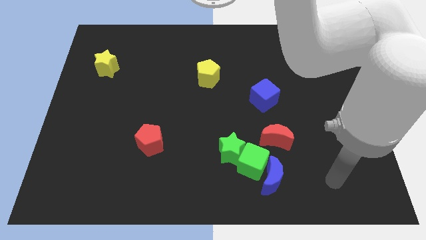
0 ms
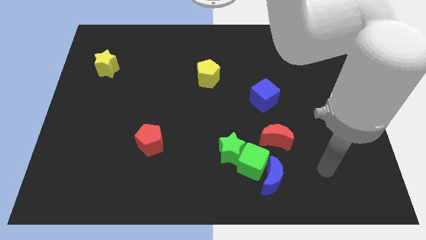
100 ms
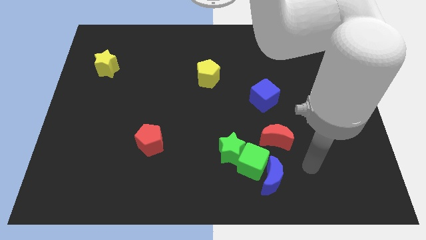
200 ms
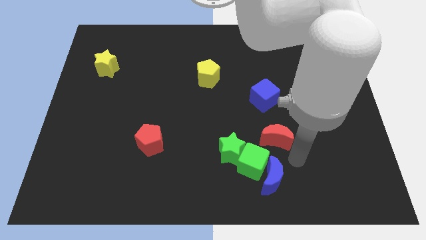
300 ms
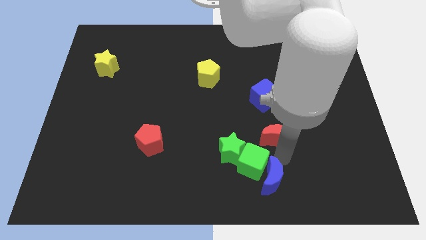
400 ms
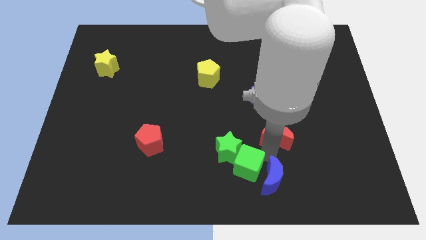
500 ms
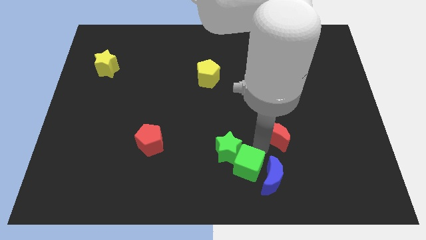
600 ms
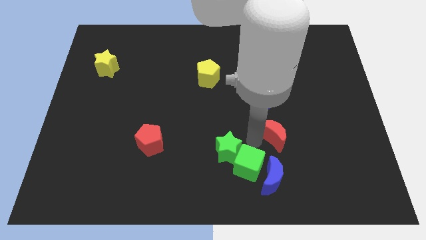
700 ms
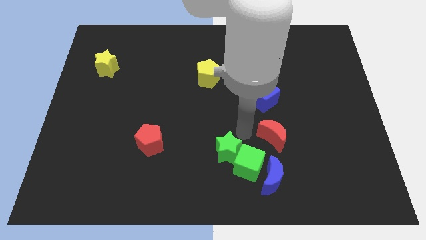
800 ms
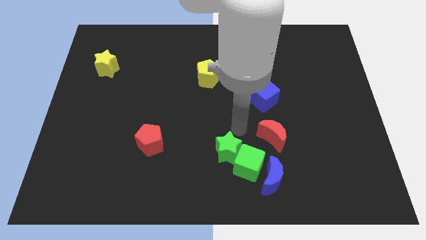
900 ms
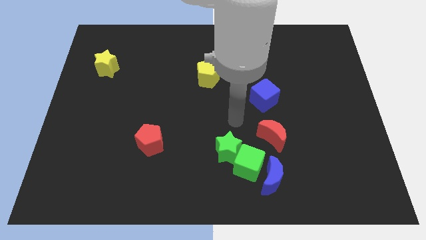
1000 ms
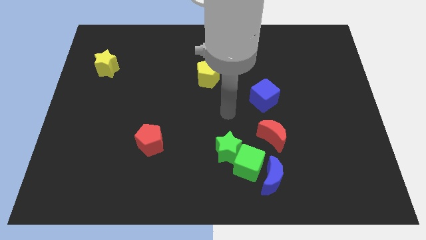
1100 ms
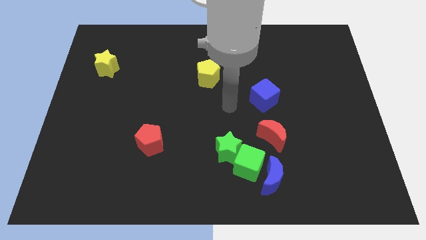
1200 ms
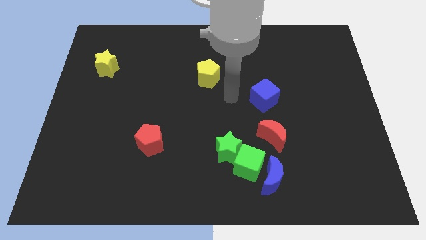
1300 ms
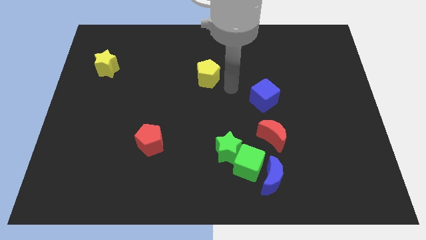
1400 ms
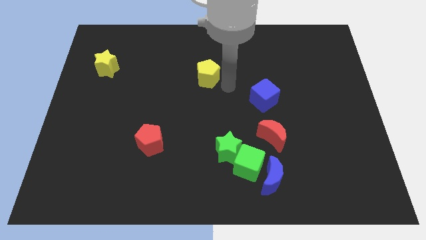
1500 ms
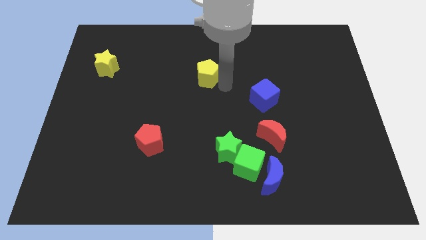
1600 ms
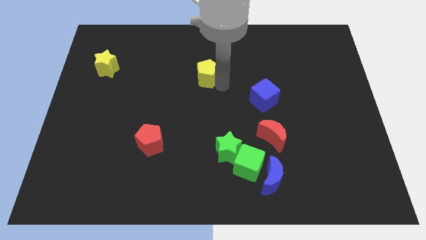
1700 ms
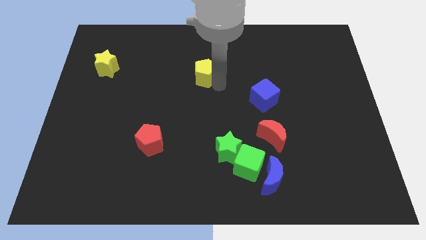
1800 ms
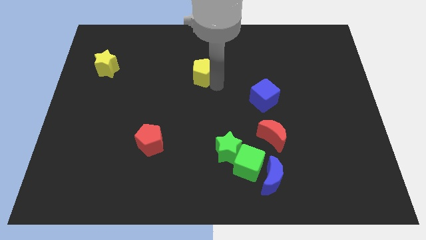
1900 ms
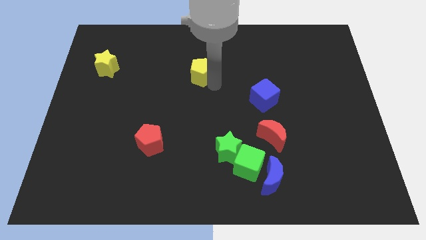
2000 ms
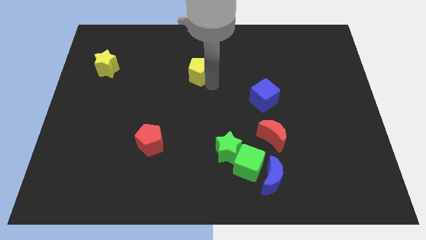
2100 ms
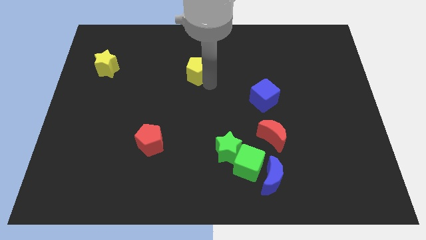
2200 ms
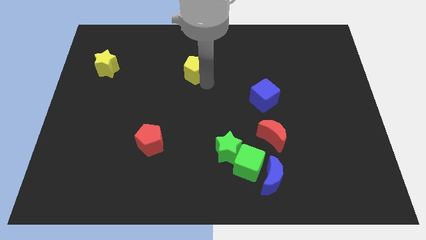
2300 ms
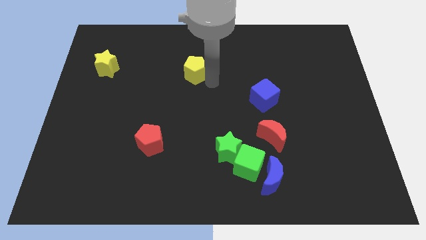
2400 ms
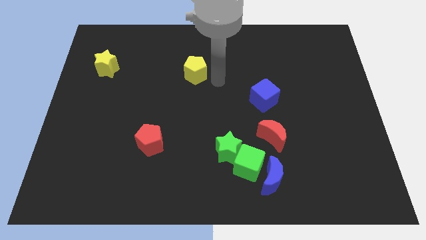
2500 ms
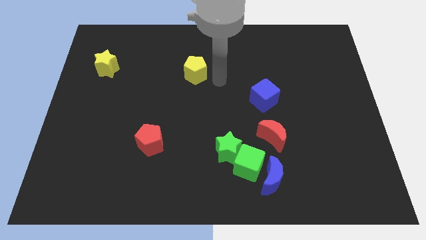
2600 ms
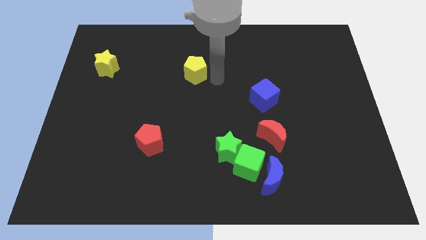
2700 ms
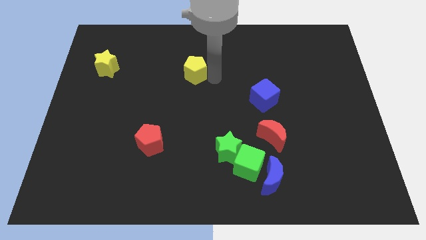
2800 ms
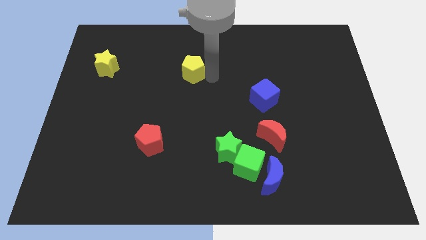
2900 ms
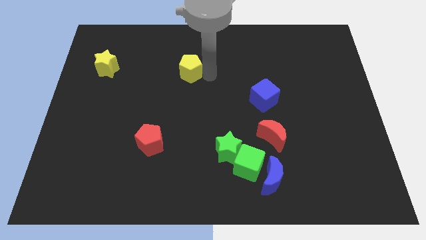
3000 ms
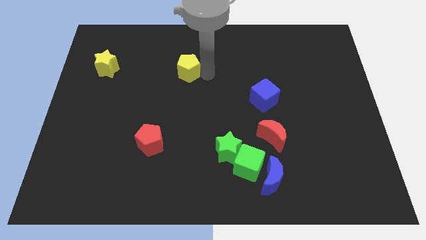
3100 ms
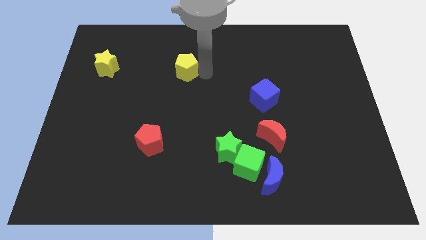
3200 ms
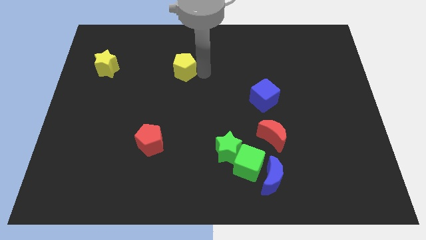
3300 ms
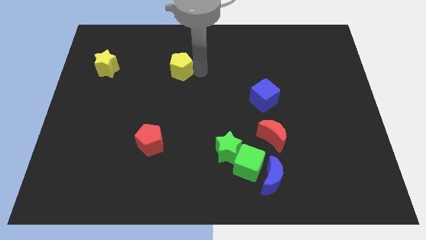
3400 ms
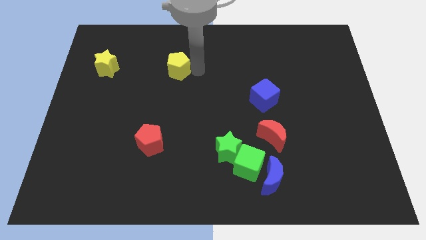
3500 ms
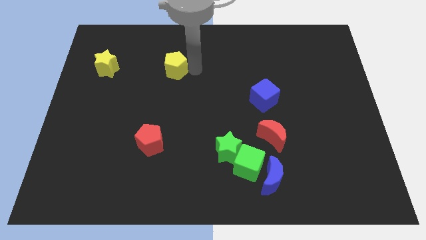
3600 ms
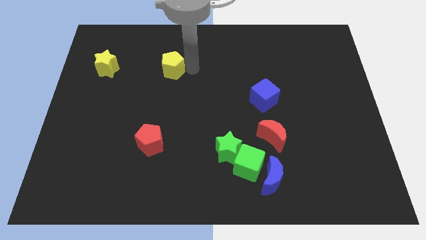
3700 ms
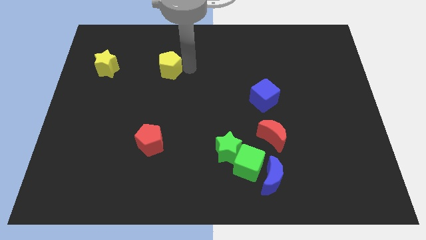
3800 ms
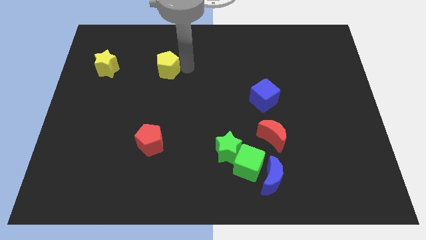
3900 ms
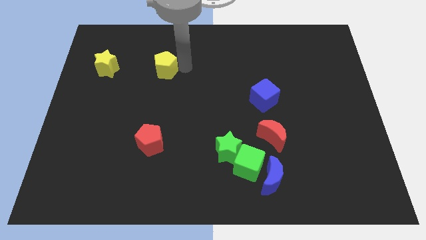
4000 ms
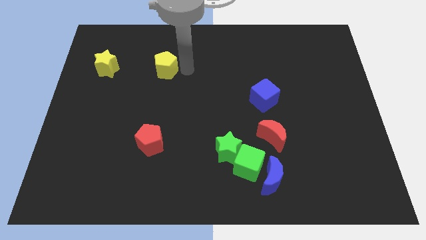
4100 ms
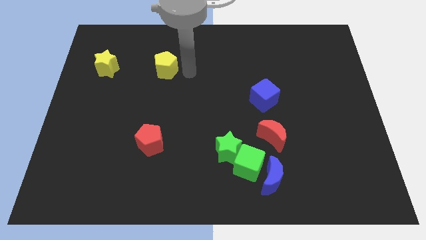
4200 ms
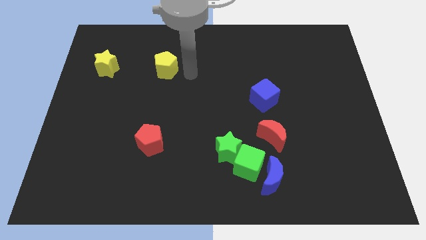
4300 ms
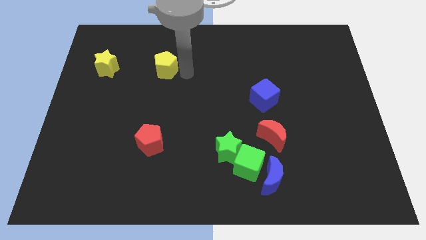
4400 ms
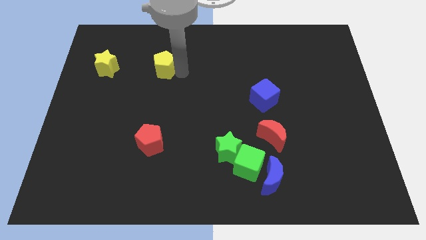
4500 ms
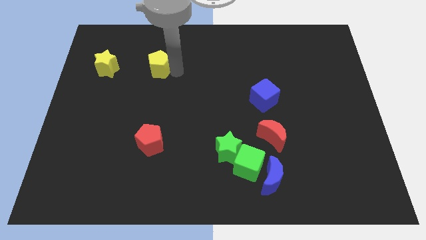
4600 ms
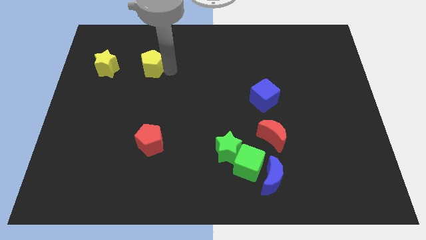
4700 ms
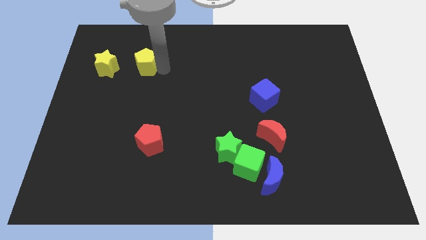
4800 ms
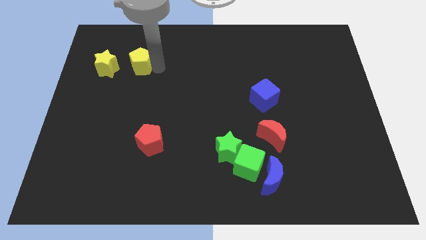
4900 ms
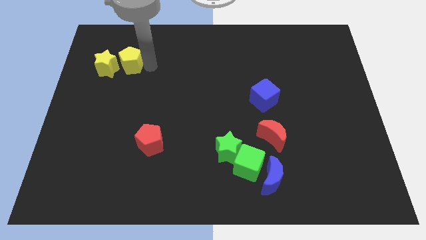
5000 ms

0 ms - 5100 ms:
move the yellow pentagon to the yellow star

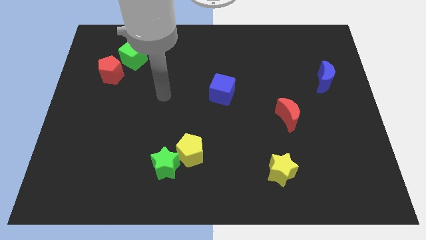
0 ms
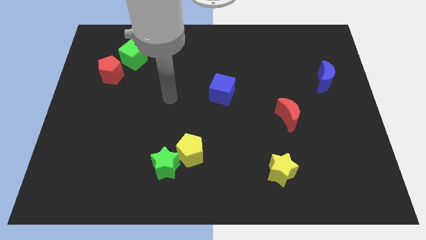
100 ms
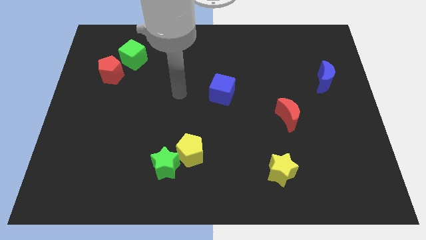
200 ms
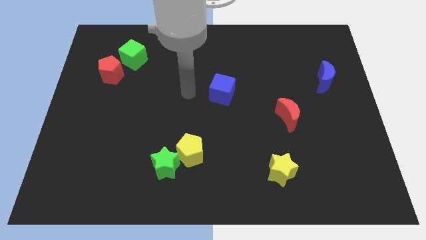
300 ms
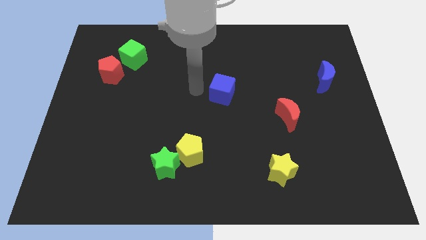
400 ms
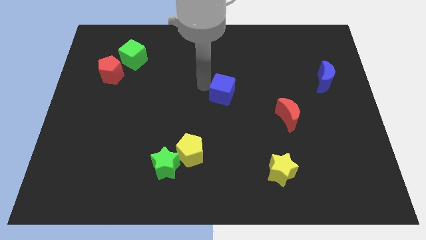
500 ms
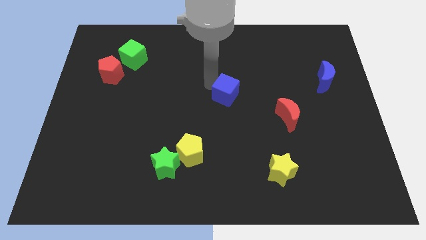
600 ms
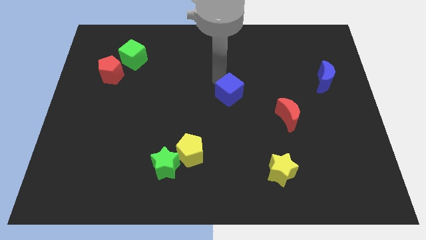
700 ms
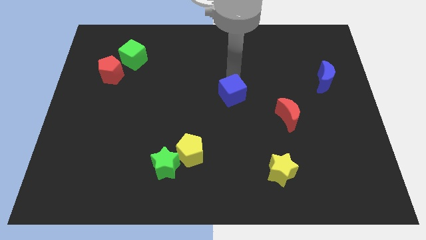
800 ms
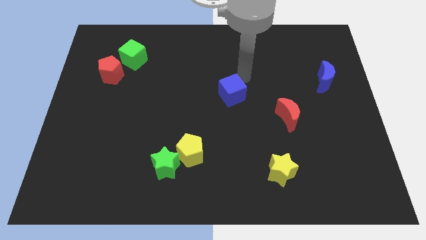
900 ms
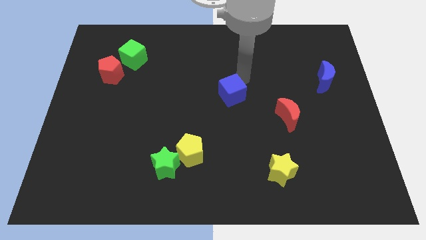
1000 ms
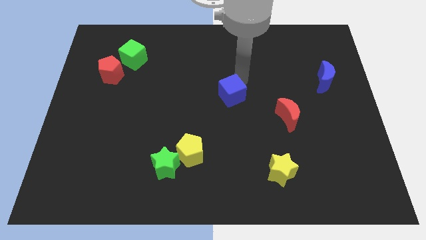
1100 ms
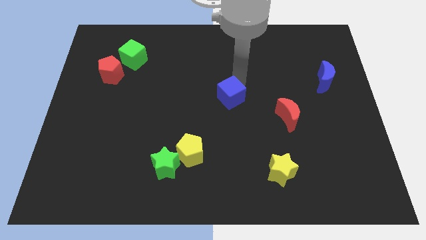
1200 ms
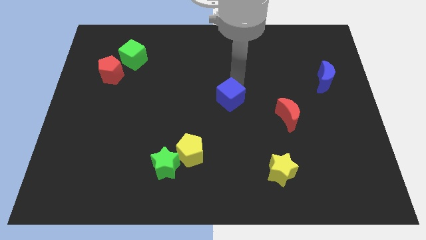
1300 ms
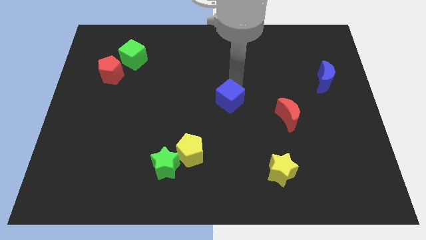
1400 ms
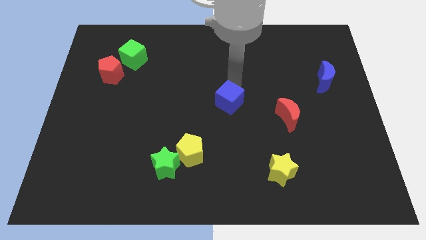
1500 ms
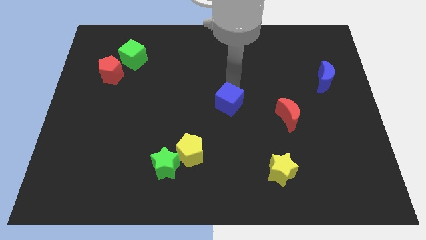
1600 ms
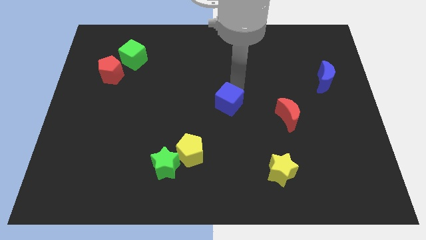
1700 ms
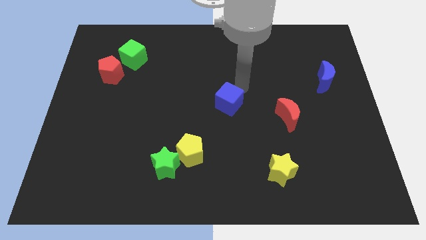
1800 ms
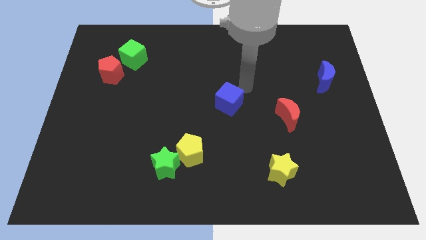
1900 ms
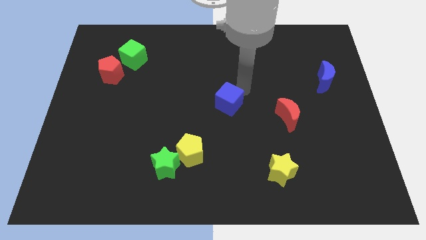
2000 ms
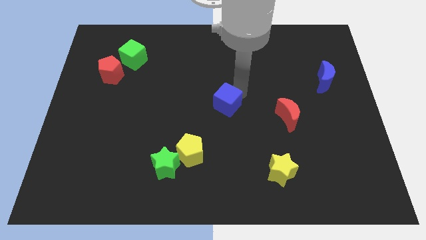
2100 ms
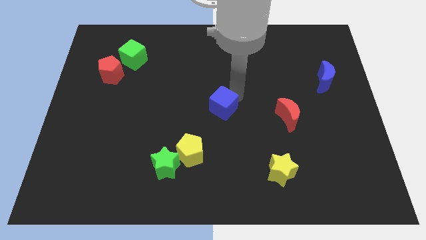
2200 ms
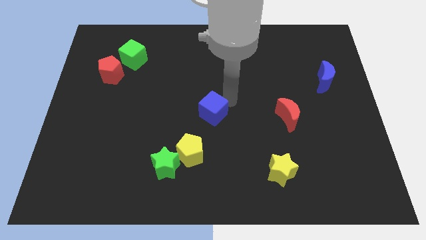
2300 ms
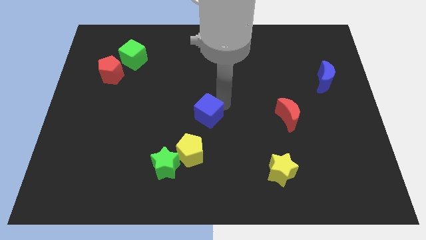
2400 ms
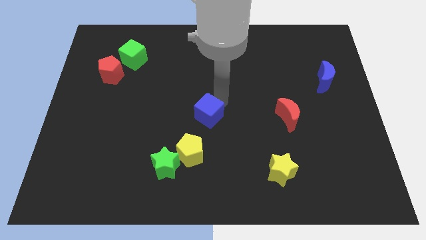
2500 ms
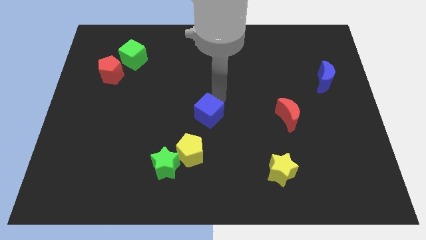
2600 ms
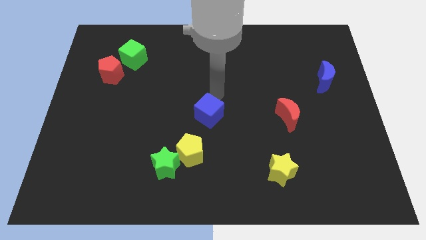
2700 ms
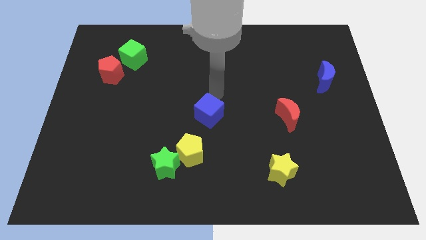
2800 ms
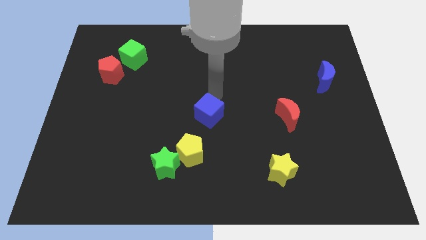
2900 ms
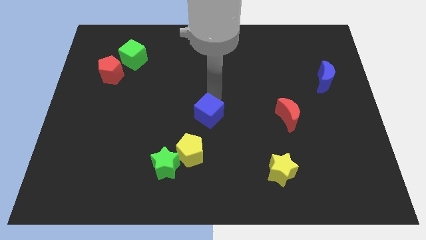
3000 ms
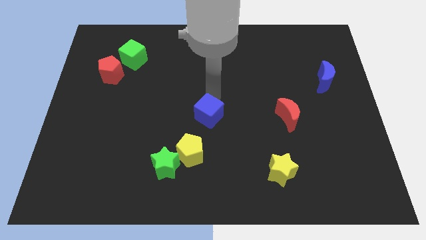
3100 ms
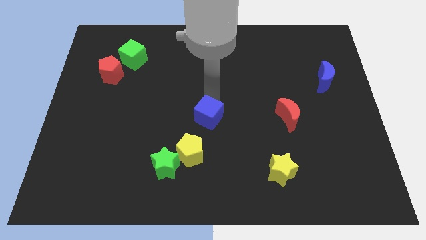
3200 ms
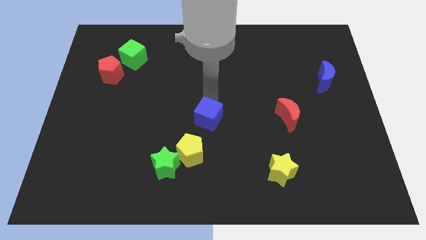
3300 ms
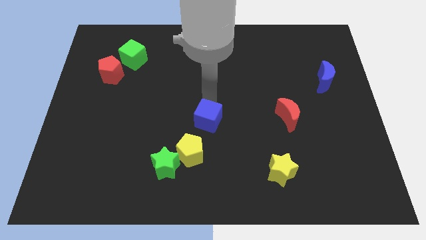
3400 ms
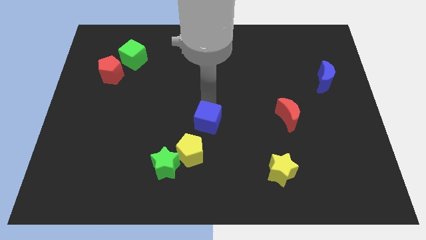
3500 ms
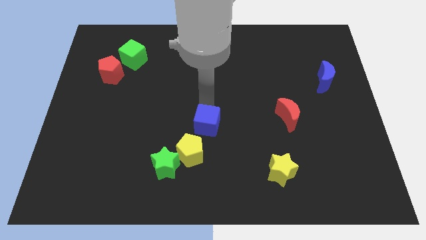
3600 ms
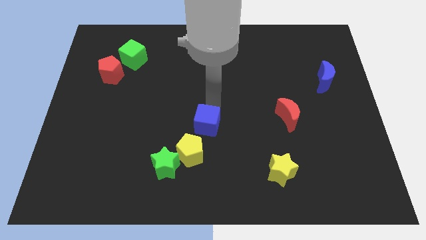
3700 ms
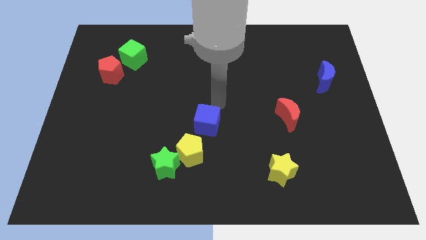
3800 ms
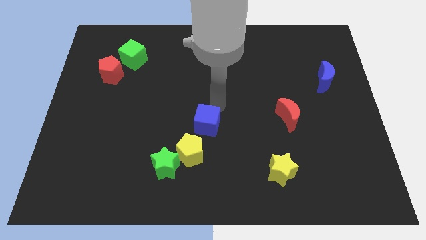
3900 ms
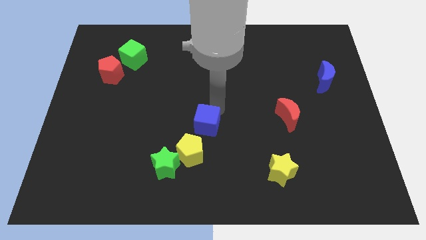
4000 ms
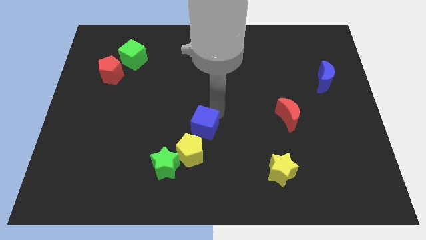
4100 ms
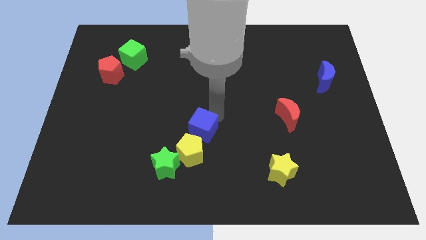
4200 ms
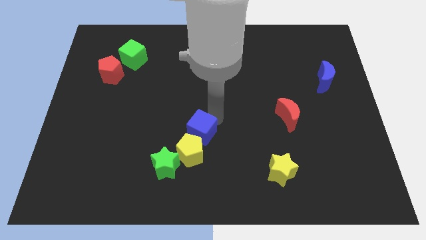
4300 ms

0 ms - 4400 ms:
slide the blue cube close to the yellow pentagon
